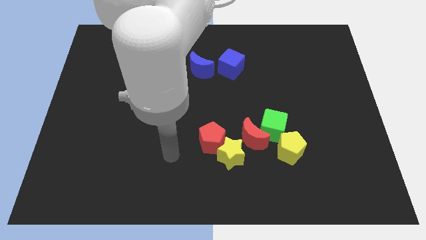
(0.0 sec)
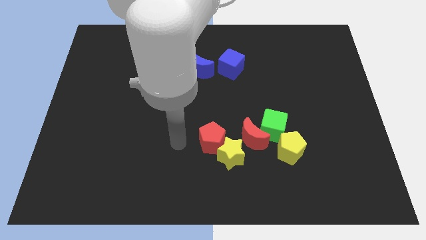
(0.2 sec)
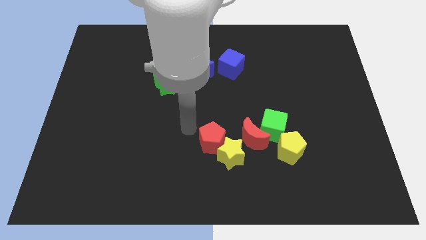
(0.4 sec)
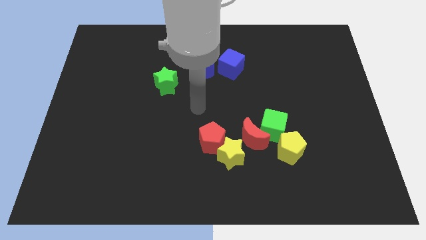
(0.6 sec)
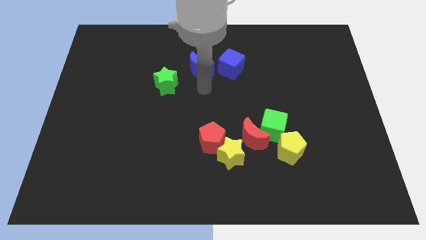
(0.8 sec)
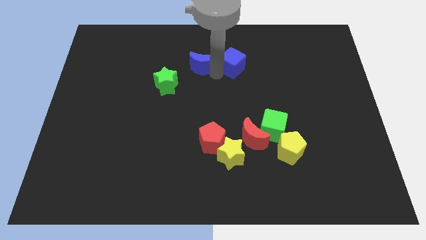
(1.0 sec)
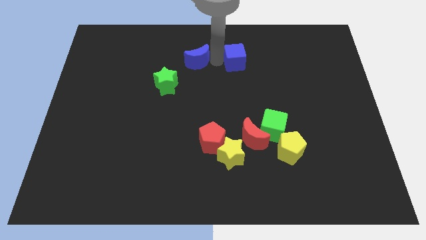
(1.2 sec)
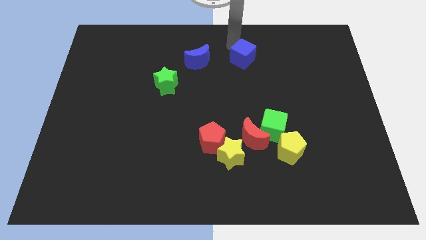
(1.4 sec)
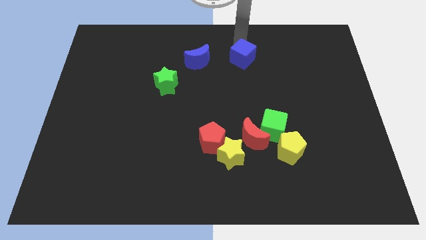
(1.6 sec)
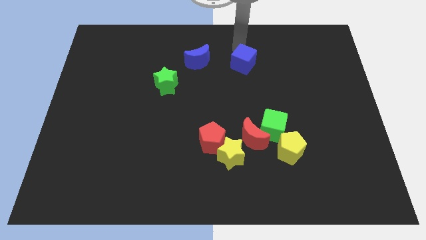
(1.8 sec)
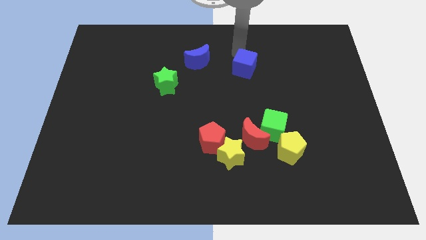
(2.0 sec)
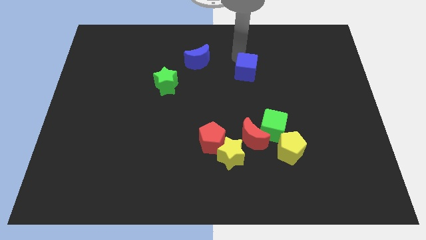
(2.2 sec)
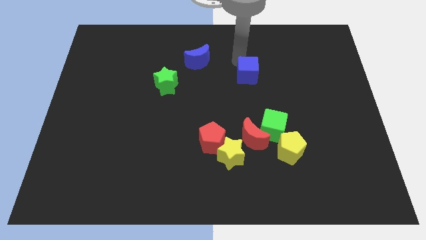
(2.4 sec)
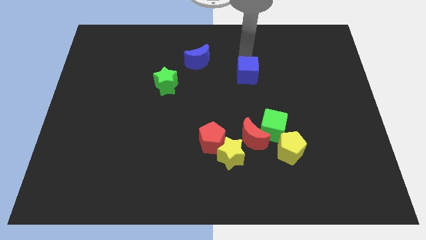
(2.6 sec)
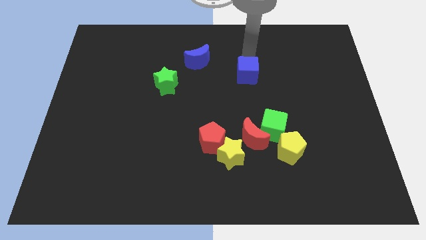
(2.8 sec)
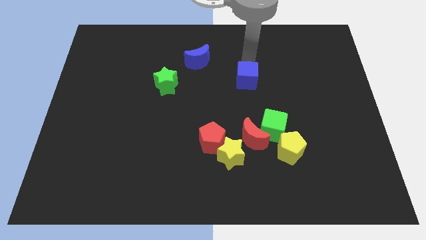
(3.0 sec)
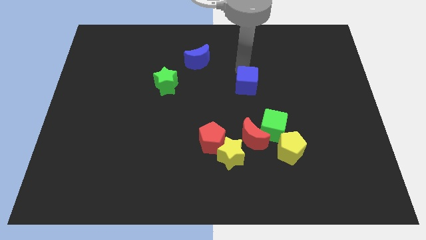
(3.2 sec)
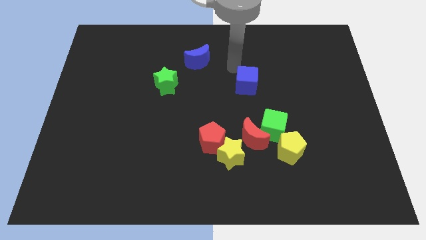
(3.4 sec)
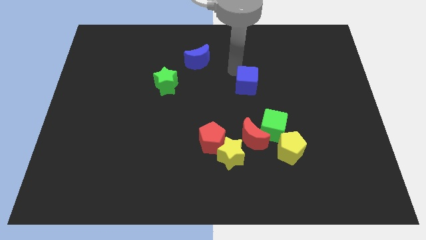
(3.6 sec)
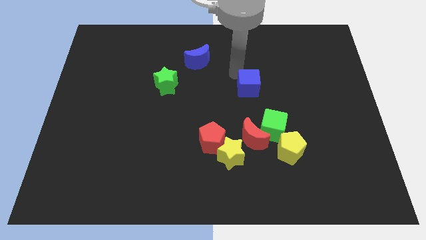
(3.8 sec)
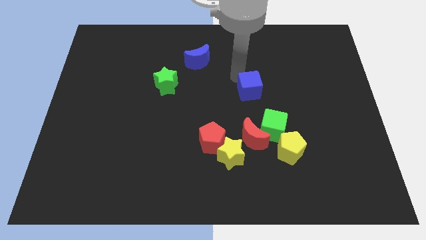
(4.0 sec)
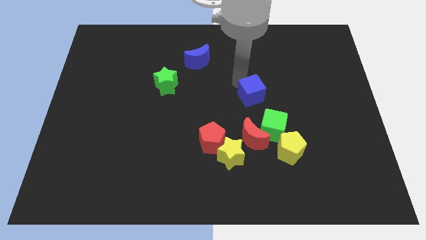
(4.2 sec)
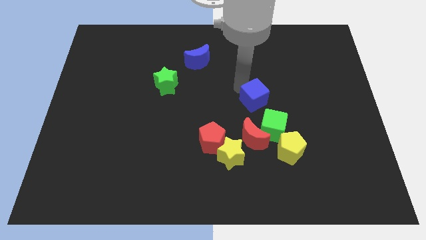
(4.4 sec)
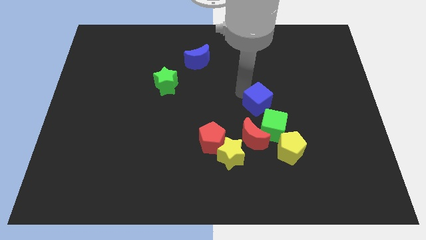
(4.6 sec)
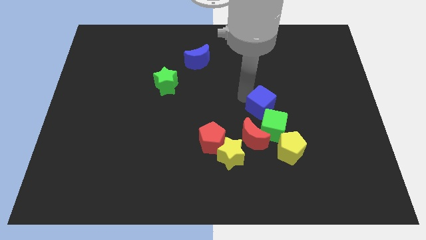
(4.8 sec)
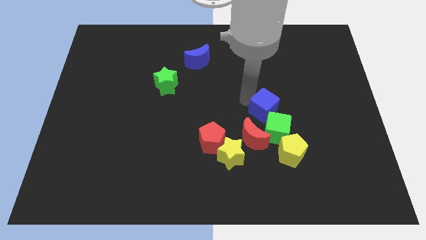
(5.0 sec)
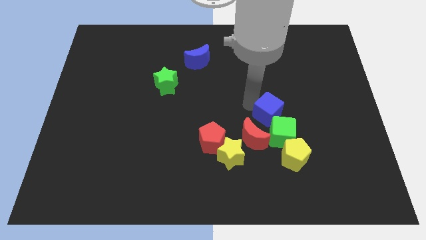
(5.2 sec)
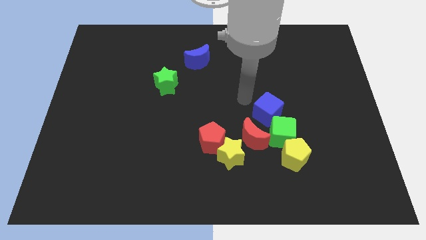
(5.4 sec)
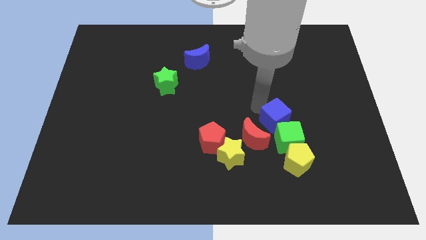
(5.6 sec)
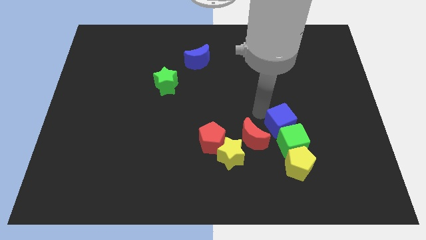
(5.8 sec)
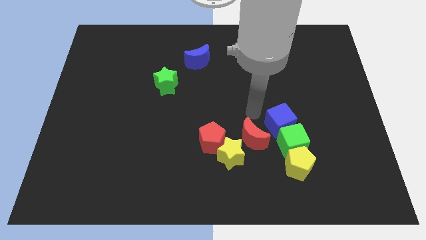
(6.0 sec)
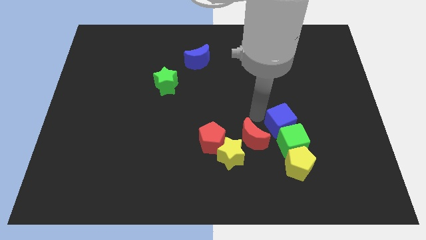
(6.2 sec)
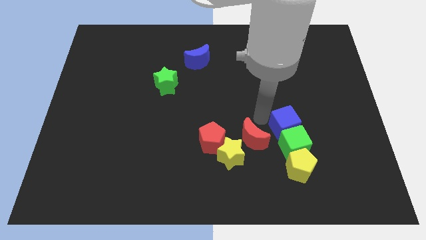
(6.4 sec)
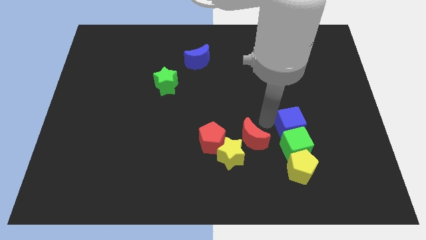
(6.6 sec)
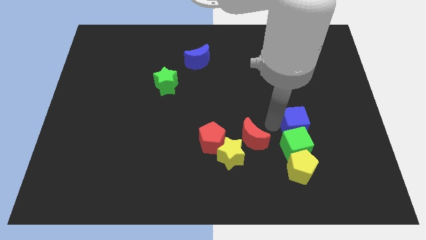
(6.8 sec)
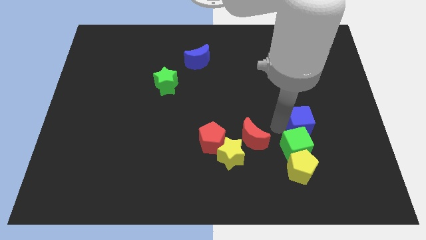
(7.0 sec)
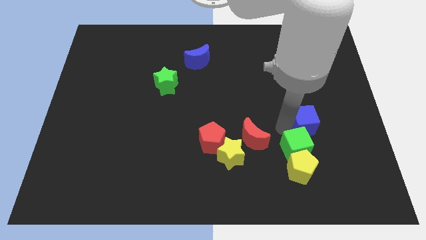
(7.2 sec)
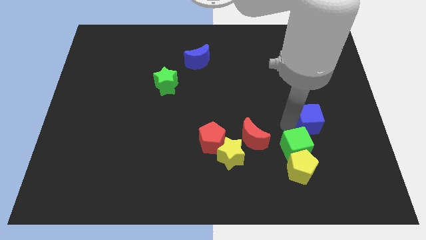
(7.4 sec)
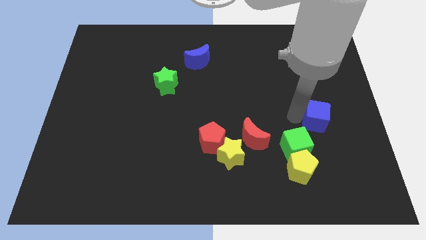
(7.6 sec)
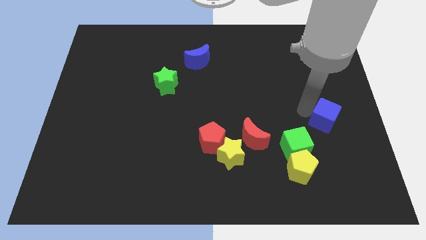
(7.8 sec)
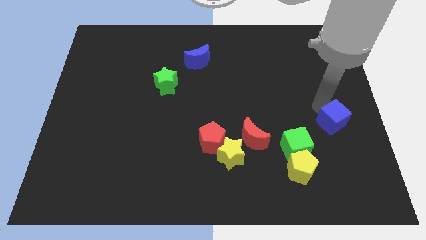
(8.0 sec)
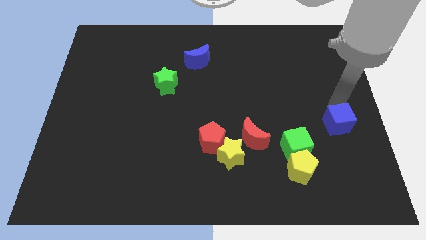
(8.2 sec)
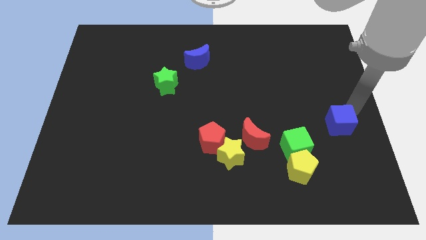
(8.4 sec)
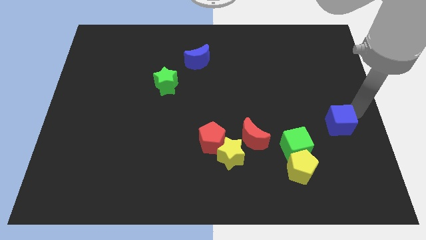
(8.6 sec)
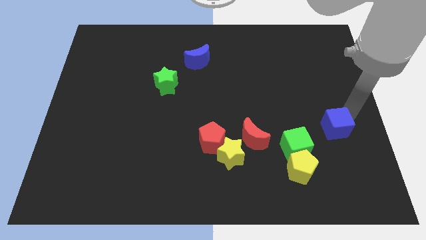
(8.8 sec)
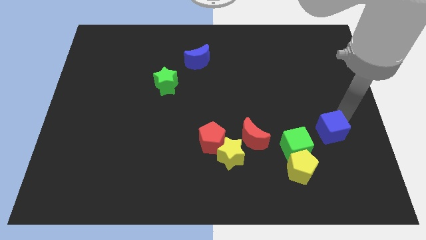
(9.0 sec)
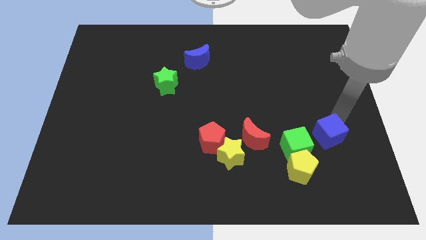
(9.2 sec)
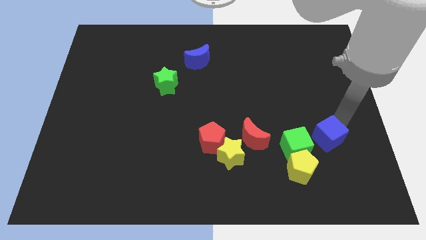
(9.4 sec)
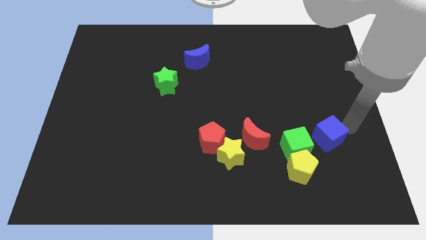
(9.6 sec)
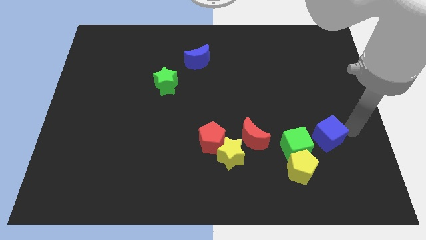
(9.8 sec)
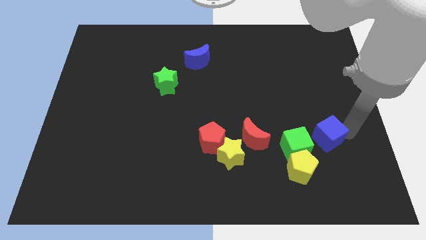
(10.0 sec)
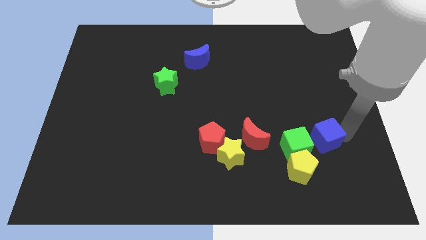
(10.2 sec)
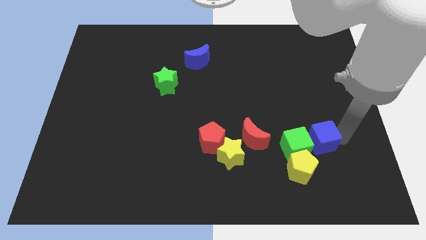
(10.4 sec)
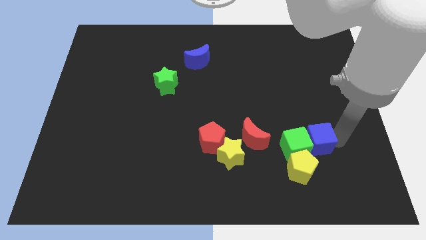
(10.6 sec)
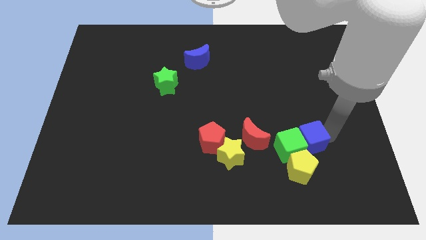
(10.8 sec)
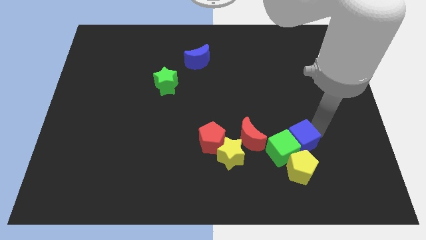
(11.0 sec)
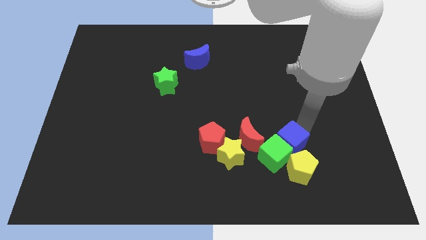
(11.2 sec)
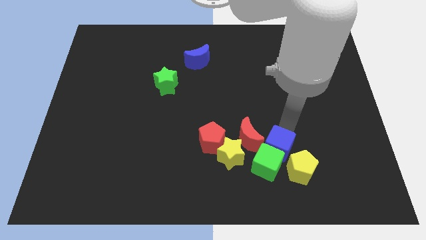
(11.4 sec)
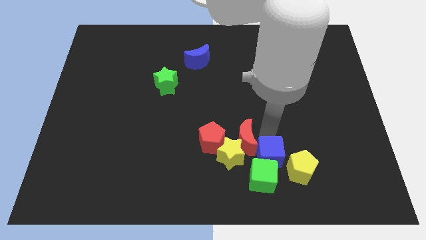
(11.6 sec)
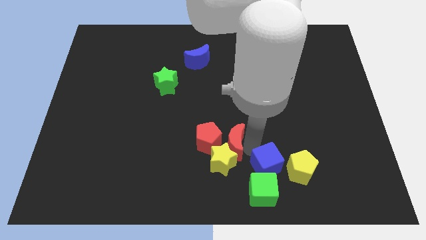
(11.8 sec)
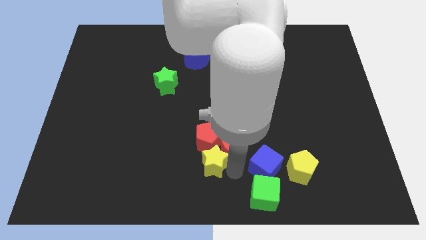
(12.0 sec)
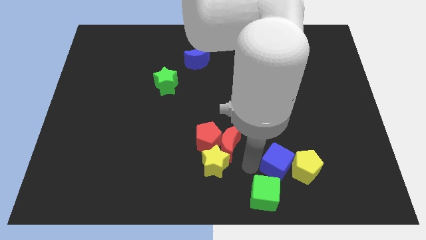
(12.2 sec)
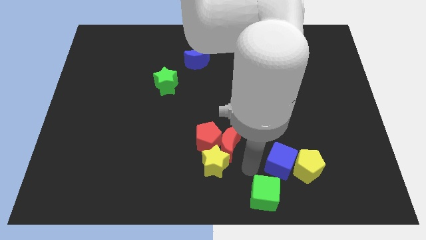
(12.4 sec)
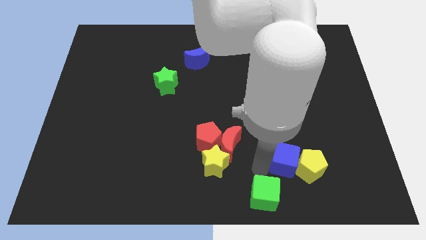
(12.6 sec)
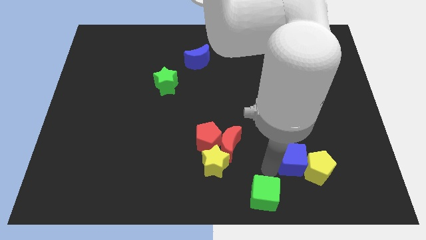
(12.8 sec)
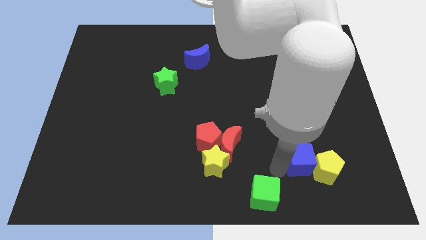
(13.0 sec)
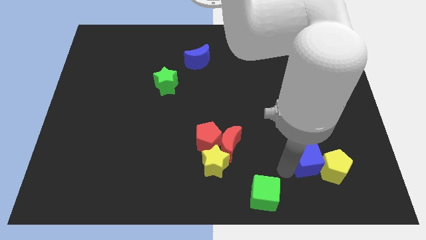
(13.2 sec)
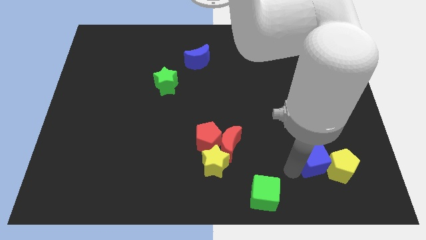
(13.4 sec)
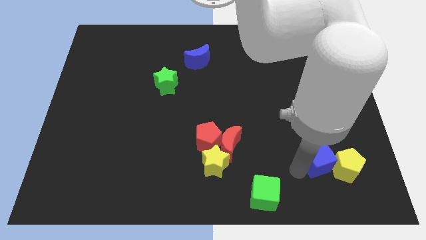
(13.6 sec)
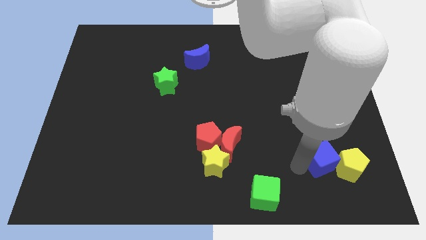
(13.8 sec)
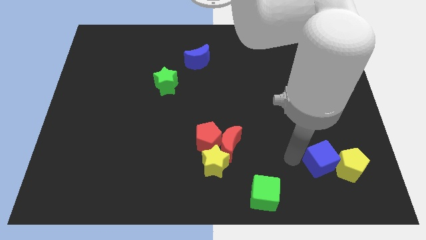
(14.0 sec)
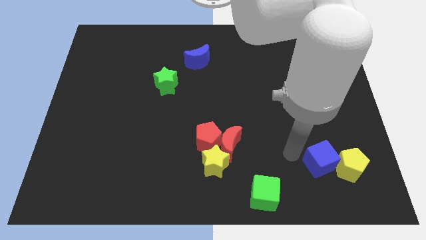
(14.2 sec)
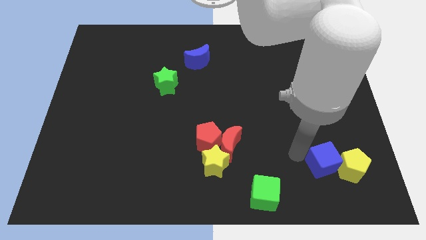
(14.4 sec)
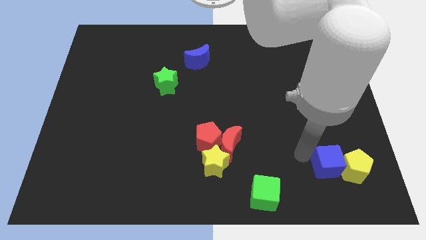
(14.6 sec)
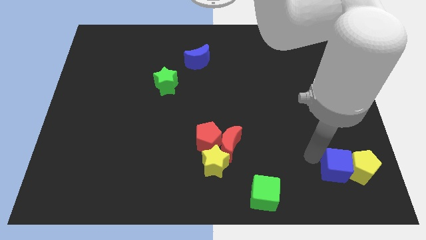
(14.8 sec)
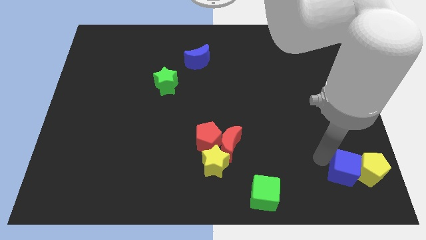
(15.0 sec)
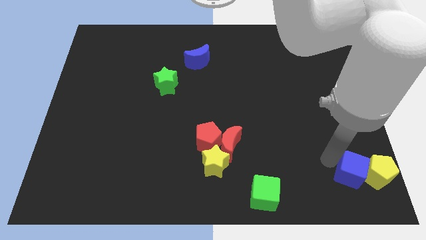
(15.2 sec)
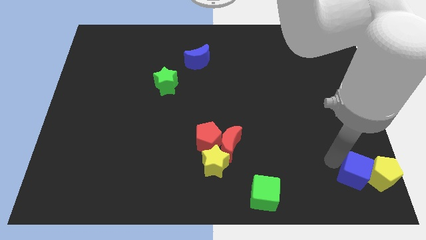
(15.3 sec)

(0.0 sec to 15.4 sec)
slide the blue cube to the bottom right corner
